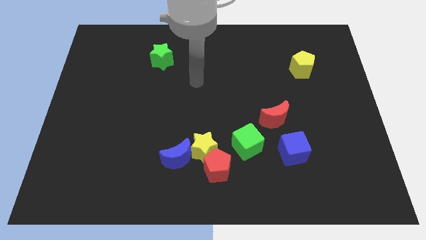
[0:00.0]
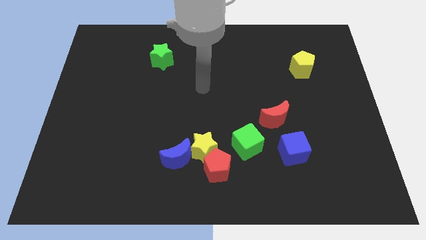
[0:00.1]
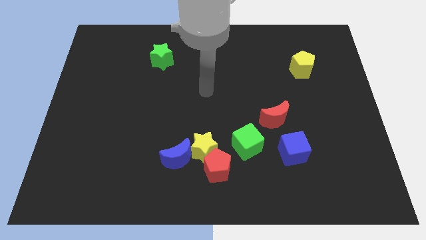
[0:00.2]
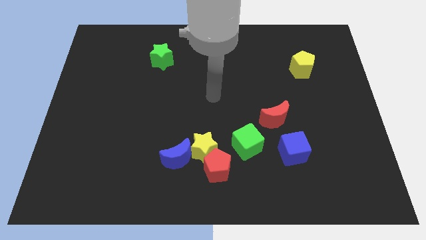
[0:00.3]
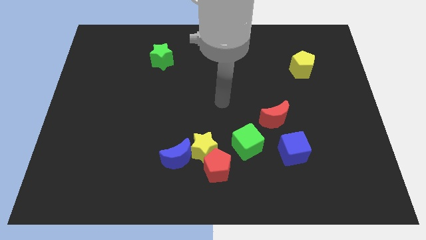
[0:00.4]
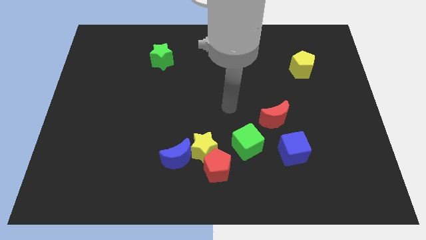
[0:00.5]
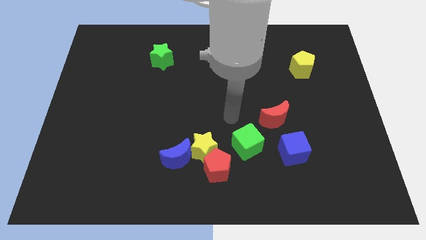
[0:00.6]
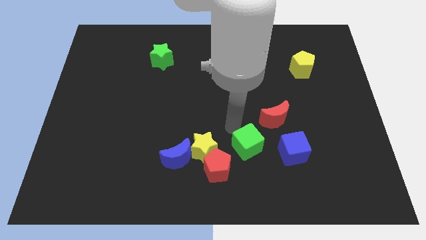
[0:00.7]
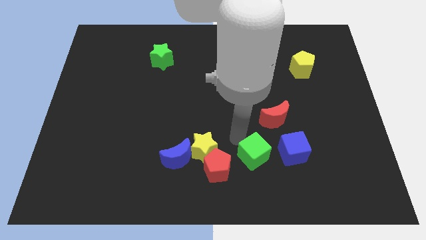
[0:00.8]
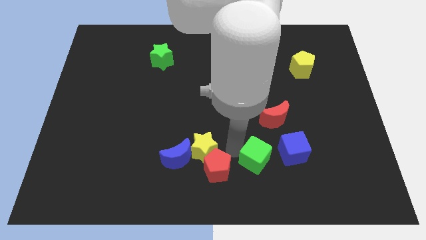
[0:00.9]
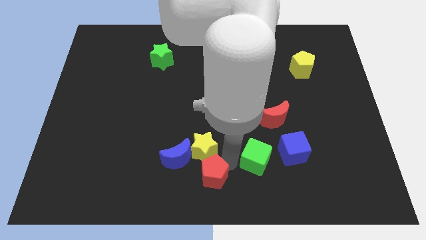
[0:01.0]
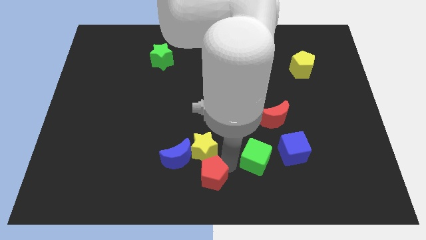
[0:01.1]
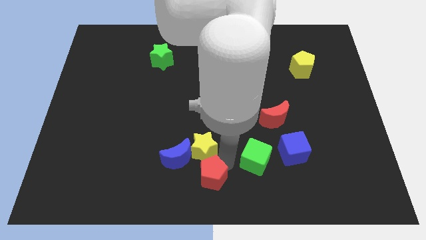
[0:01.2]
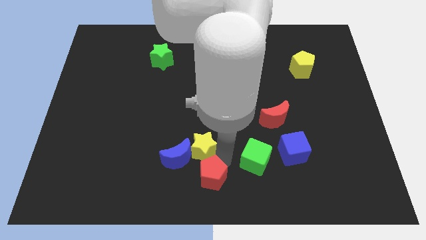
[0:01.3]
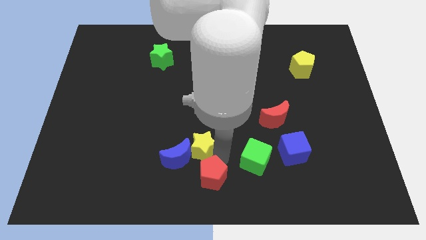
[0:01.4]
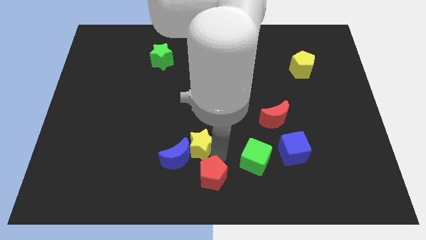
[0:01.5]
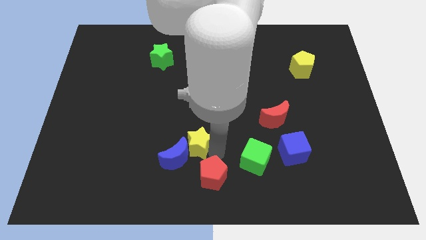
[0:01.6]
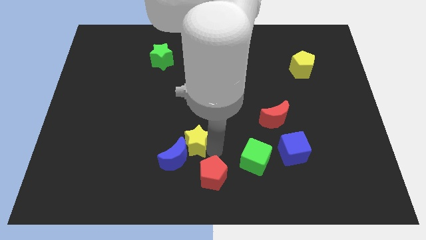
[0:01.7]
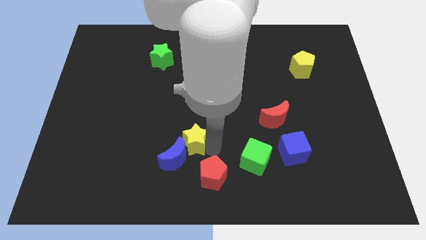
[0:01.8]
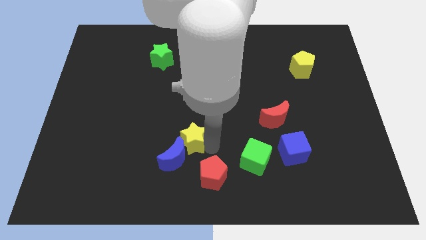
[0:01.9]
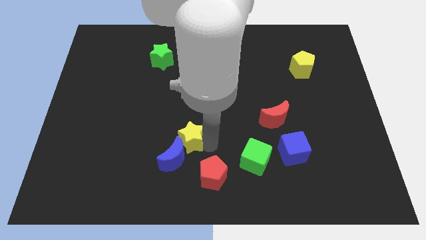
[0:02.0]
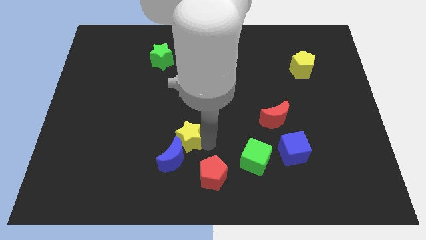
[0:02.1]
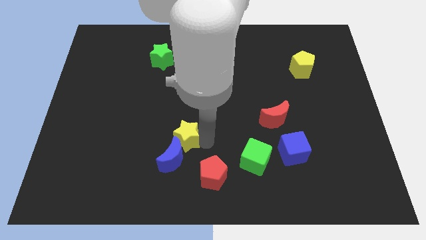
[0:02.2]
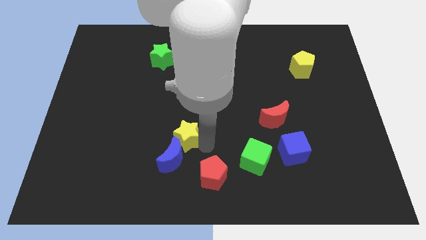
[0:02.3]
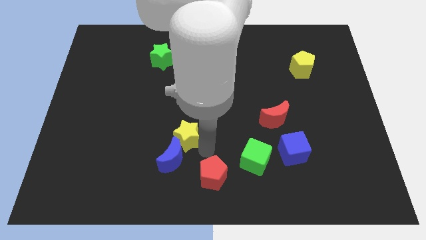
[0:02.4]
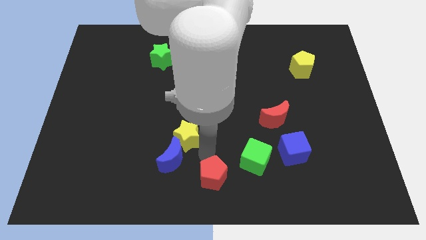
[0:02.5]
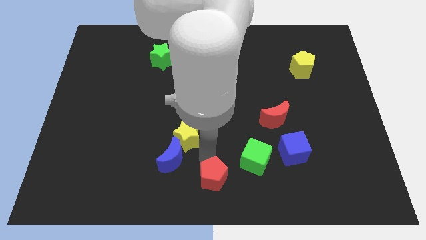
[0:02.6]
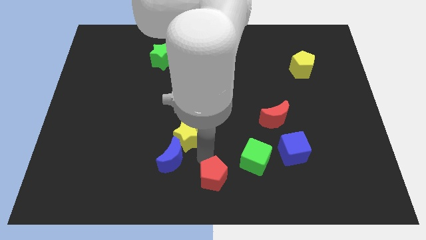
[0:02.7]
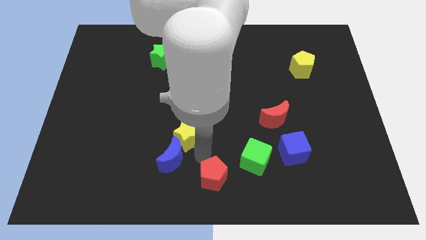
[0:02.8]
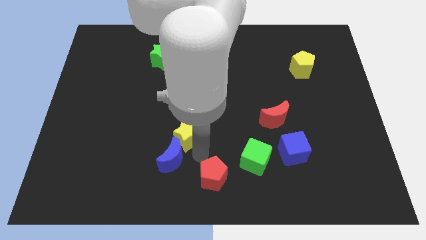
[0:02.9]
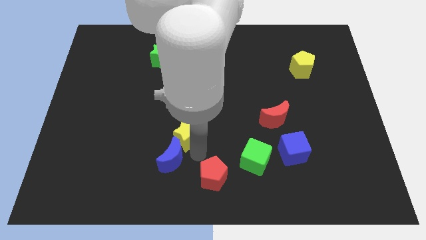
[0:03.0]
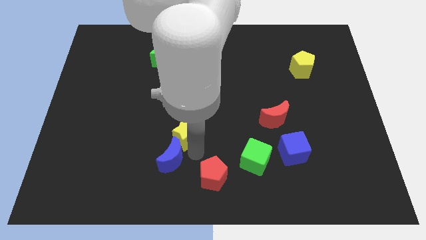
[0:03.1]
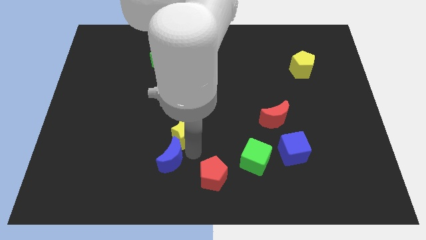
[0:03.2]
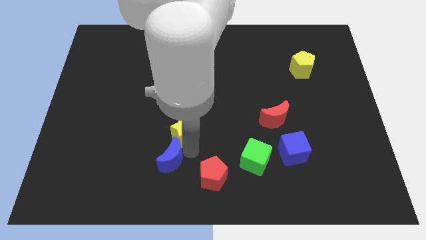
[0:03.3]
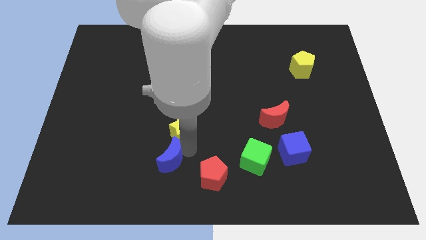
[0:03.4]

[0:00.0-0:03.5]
move the yellow star away from the red pentagon, blue moon, and green cube

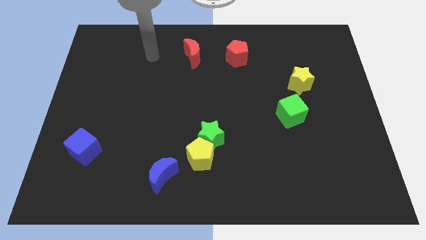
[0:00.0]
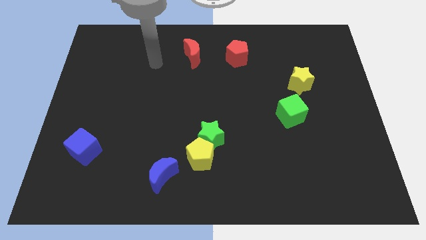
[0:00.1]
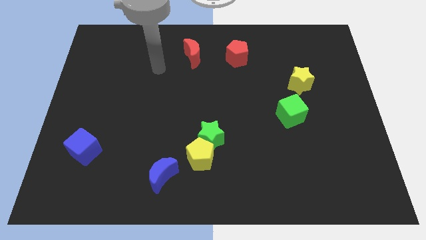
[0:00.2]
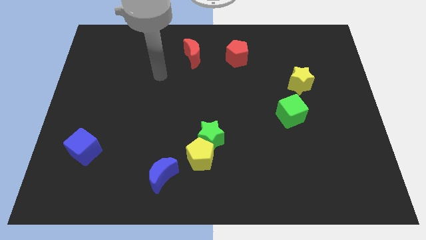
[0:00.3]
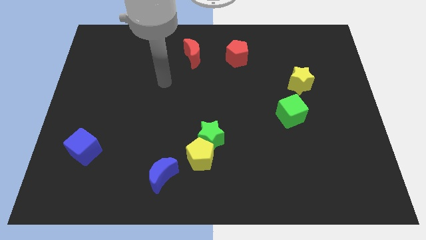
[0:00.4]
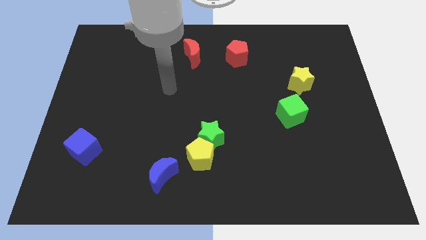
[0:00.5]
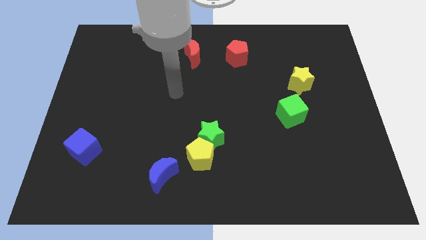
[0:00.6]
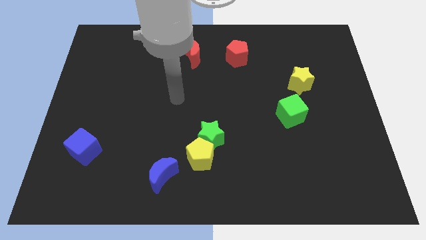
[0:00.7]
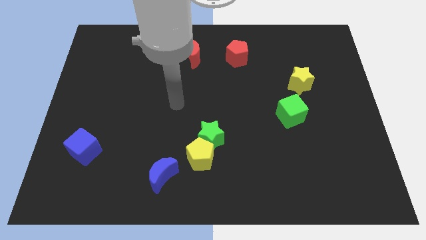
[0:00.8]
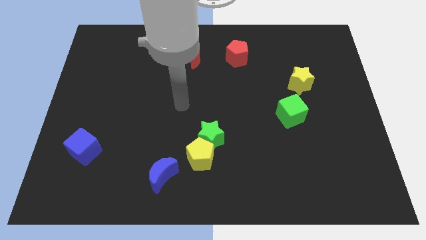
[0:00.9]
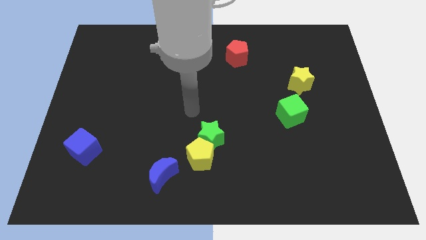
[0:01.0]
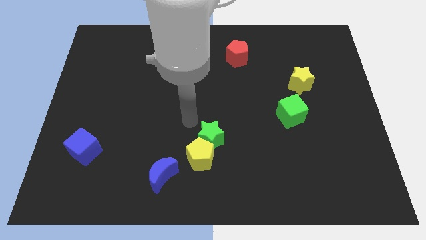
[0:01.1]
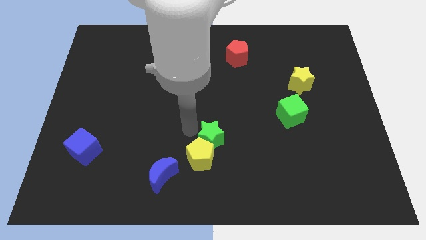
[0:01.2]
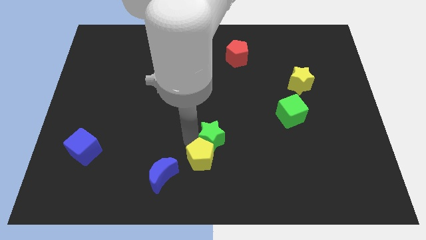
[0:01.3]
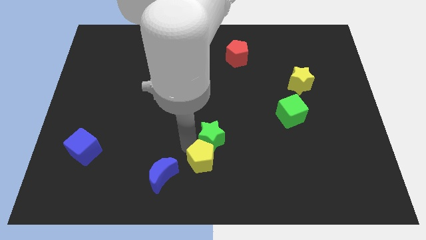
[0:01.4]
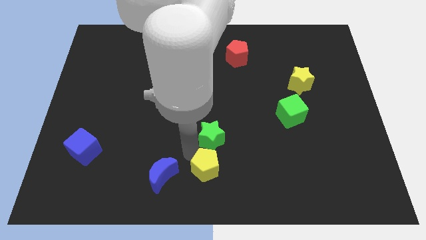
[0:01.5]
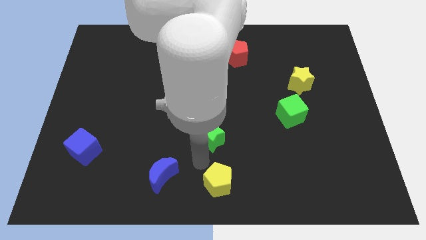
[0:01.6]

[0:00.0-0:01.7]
pull the green star apart from the yellow pentagon

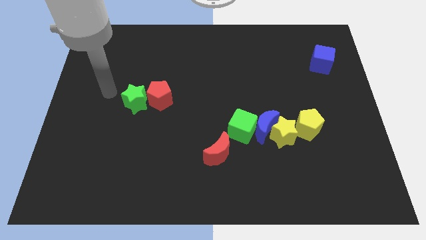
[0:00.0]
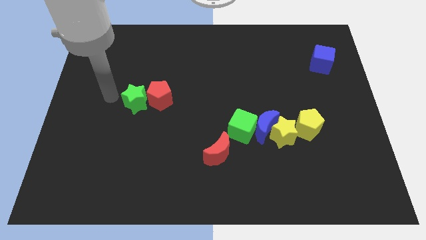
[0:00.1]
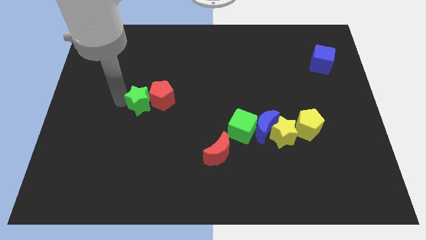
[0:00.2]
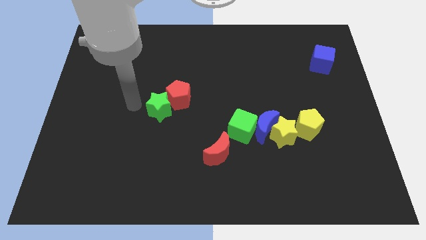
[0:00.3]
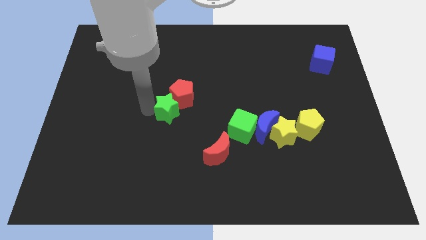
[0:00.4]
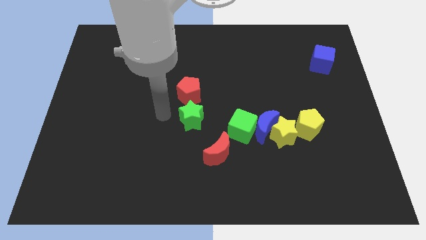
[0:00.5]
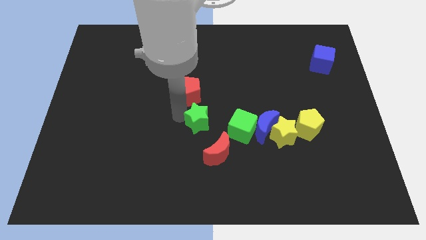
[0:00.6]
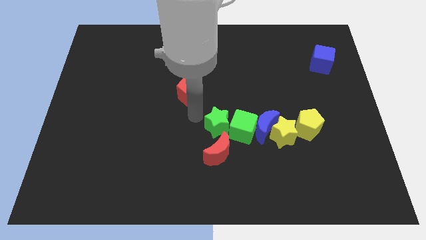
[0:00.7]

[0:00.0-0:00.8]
move the red pentagon away from the green star

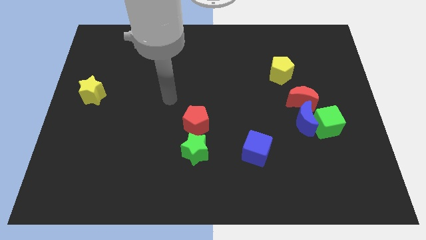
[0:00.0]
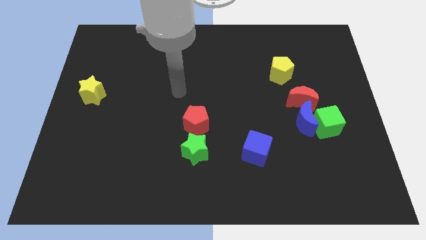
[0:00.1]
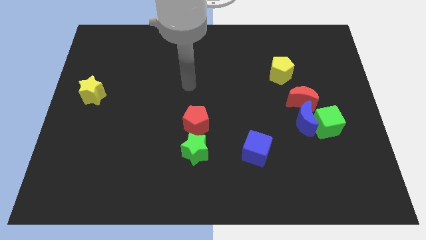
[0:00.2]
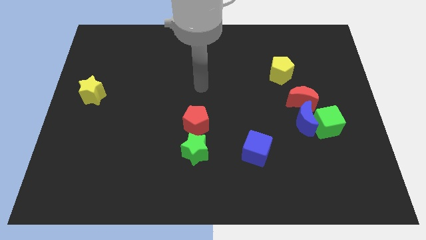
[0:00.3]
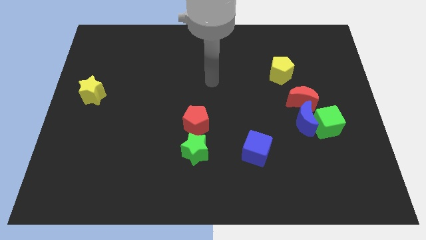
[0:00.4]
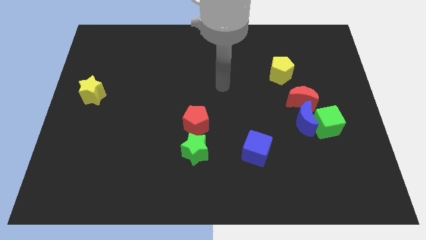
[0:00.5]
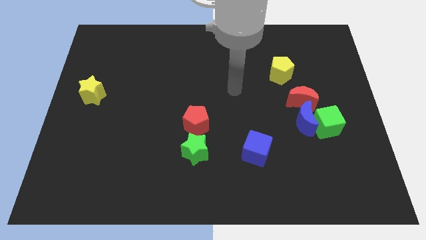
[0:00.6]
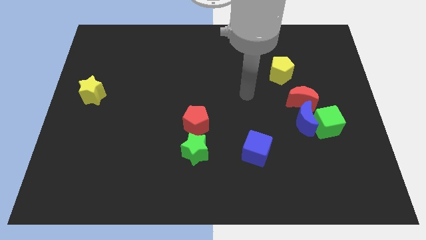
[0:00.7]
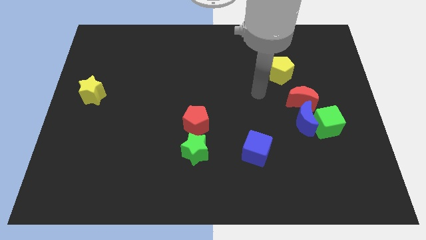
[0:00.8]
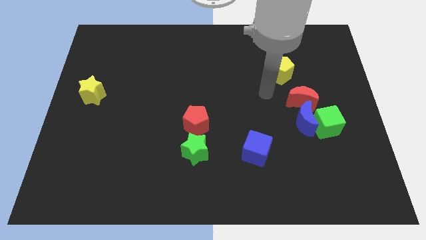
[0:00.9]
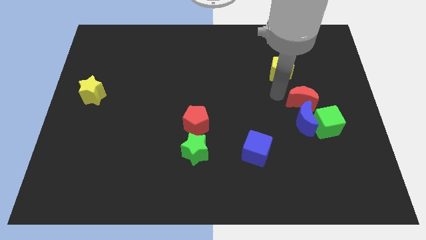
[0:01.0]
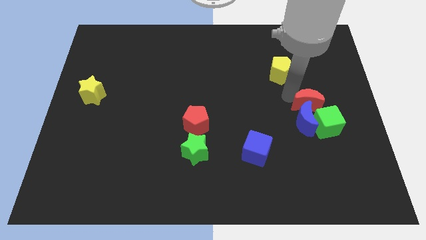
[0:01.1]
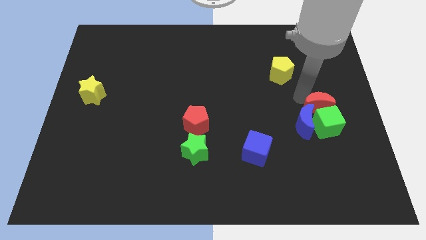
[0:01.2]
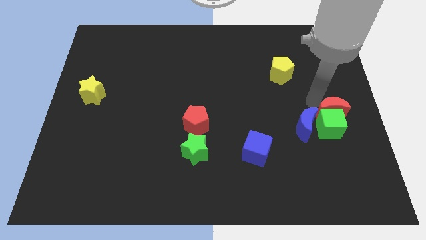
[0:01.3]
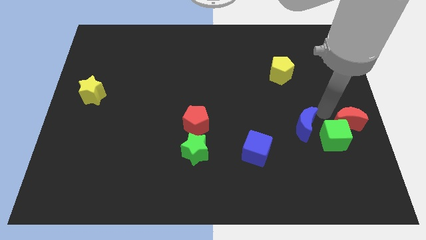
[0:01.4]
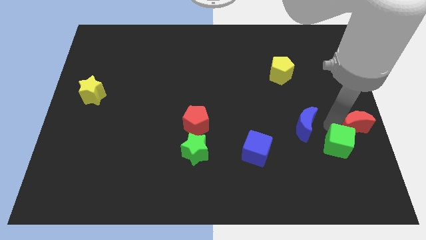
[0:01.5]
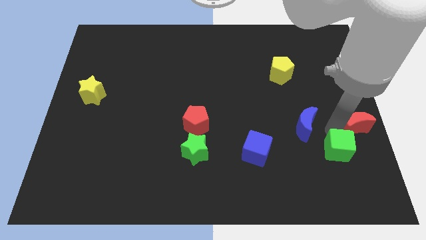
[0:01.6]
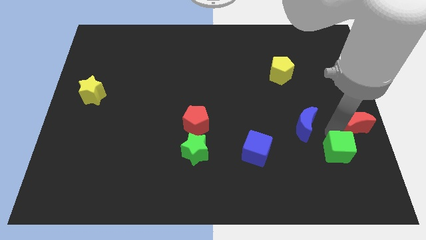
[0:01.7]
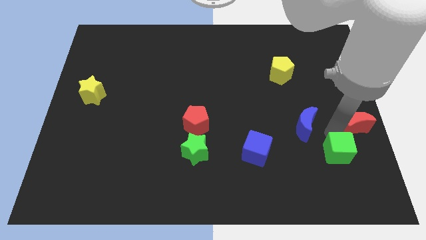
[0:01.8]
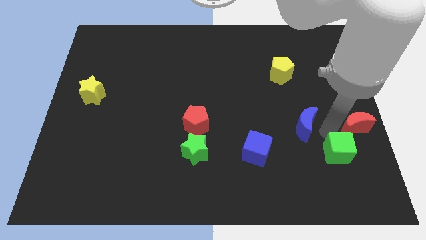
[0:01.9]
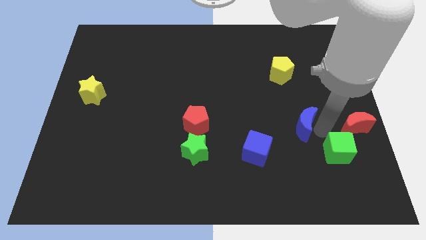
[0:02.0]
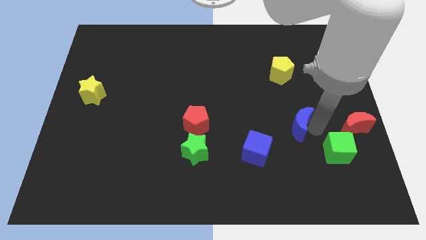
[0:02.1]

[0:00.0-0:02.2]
move the blue moon away from the green cube and red moon

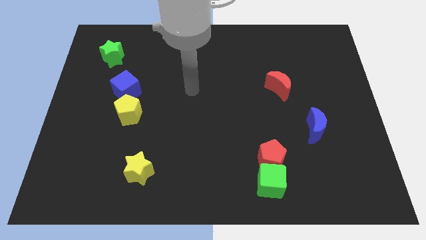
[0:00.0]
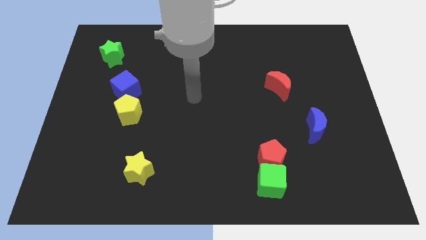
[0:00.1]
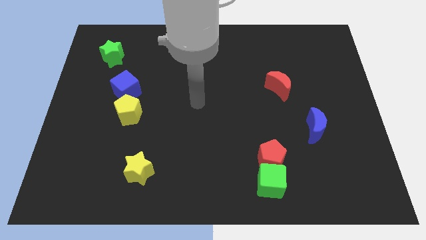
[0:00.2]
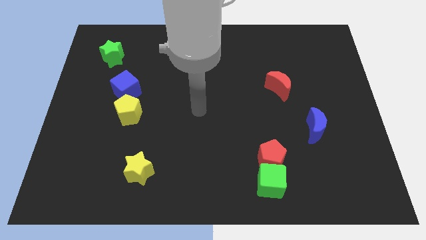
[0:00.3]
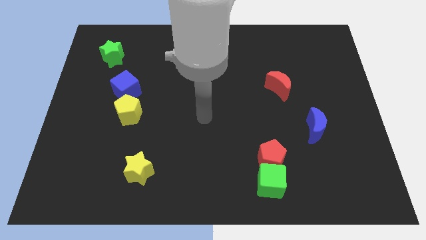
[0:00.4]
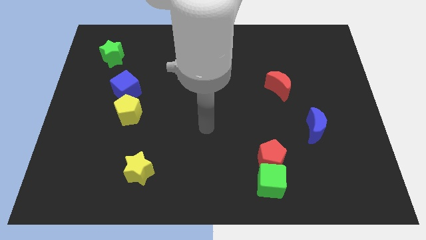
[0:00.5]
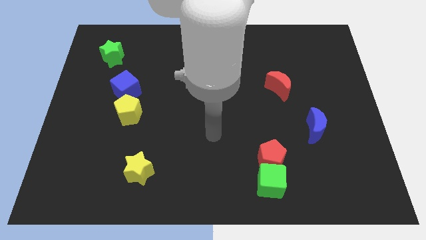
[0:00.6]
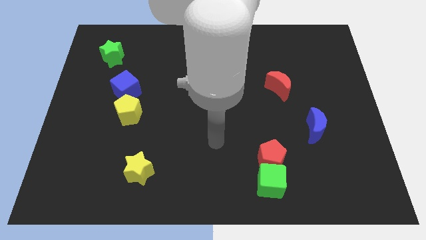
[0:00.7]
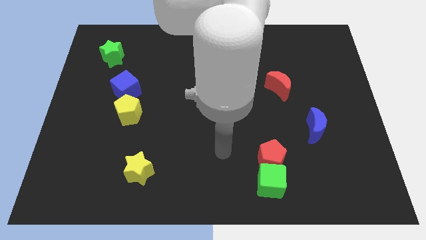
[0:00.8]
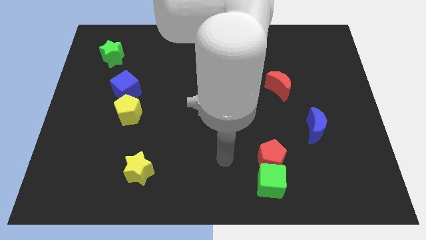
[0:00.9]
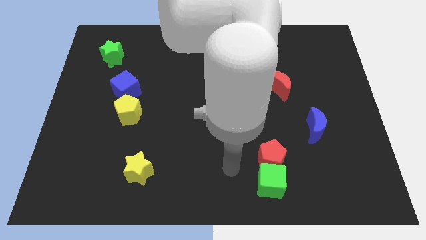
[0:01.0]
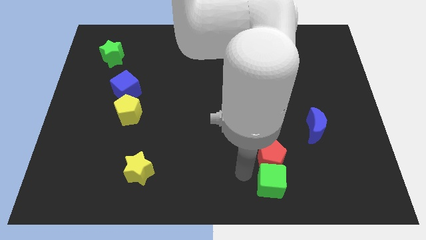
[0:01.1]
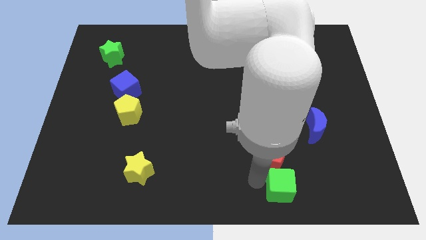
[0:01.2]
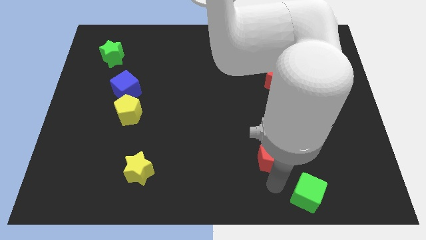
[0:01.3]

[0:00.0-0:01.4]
move the red pentagon away from the green cube
